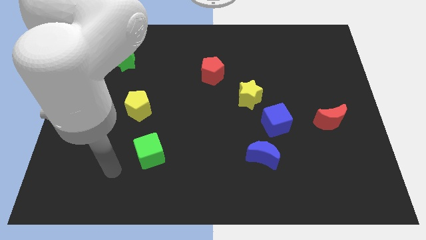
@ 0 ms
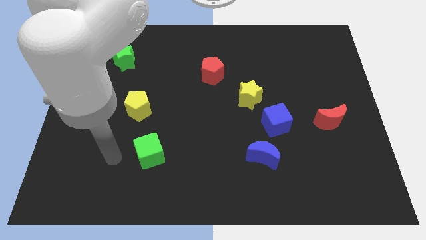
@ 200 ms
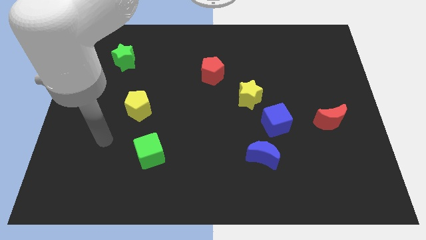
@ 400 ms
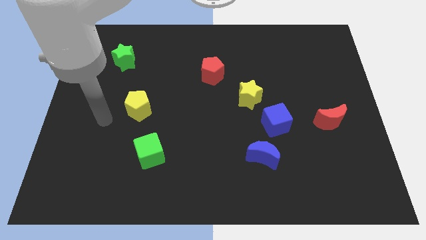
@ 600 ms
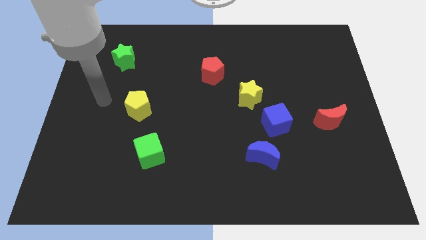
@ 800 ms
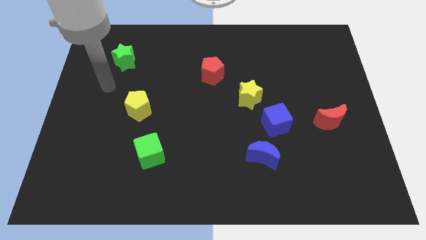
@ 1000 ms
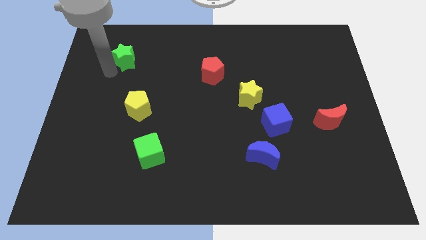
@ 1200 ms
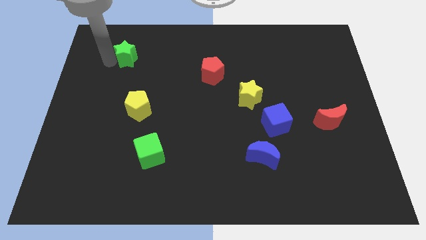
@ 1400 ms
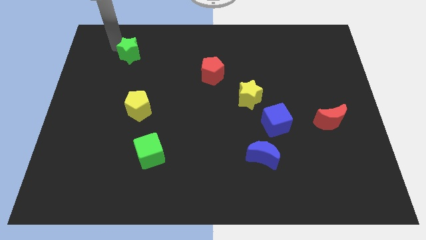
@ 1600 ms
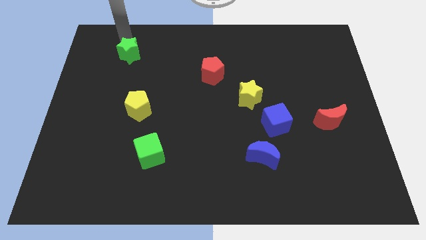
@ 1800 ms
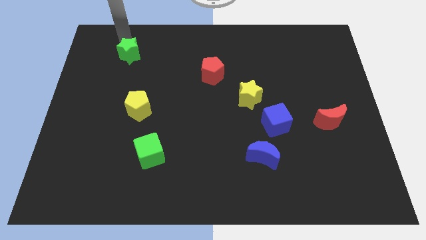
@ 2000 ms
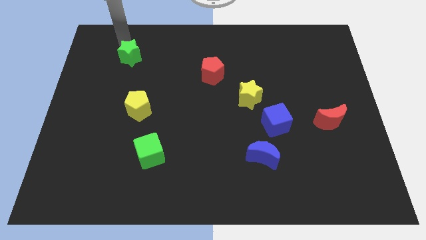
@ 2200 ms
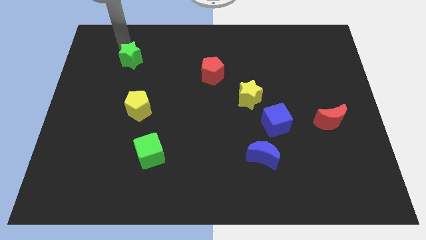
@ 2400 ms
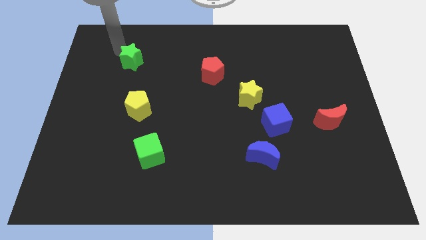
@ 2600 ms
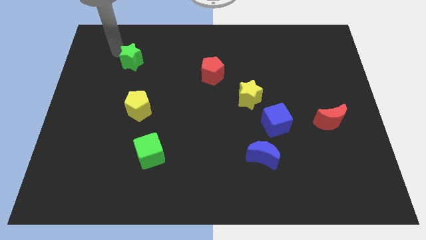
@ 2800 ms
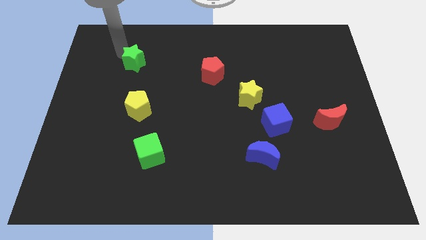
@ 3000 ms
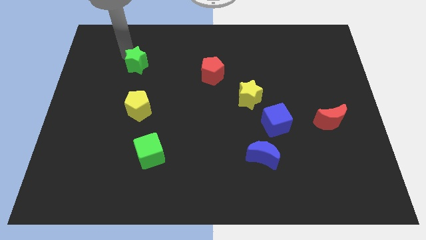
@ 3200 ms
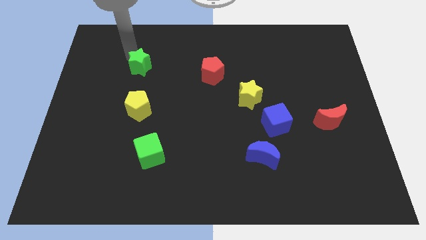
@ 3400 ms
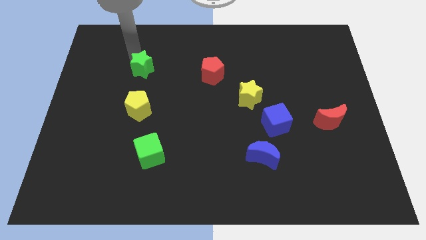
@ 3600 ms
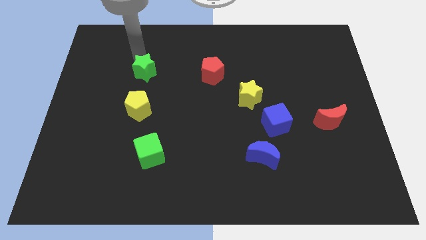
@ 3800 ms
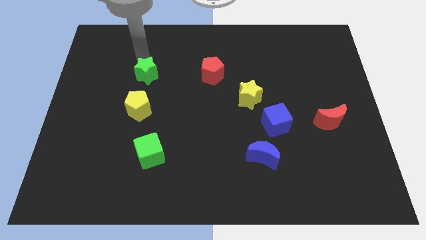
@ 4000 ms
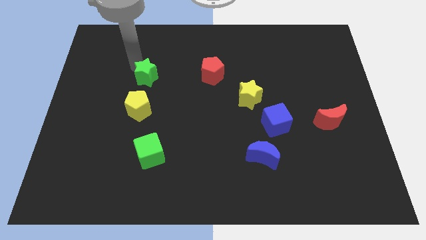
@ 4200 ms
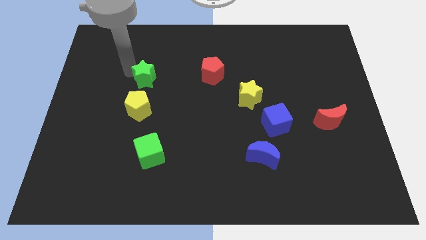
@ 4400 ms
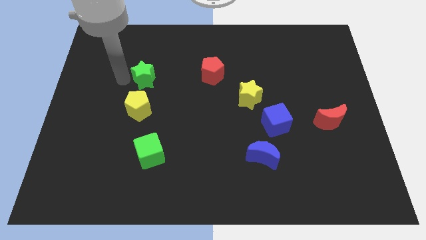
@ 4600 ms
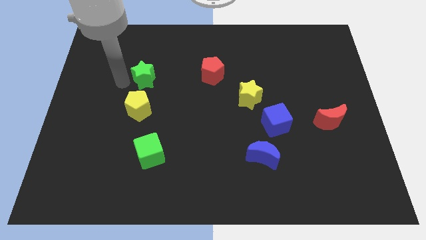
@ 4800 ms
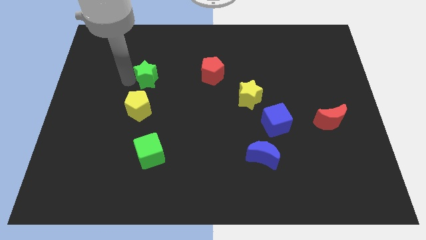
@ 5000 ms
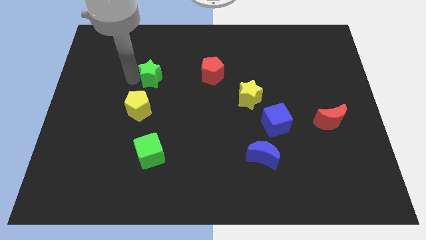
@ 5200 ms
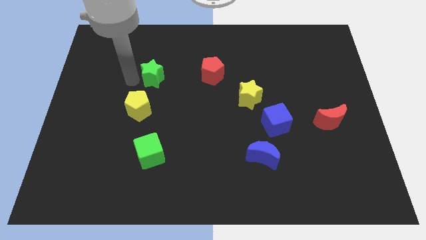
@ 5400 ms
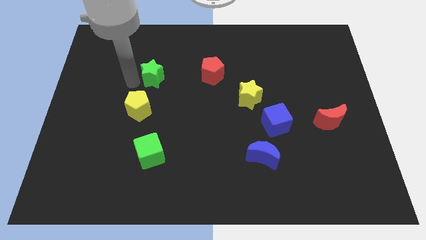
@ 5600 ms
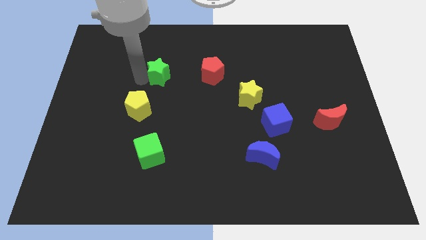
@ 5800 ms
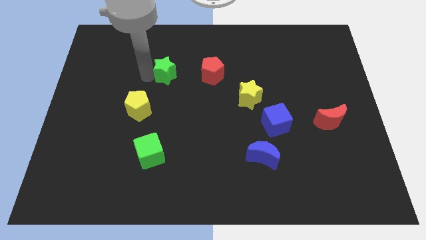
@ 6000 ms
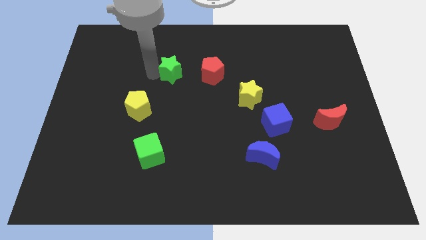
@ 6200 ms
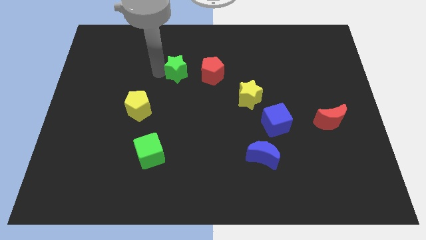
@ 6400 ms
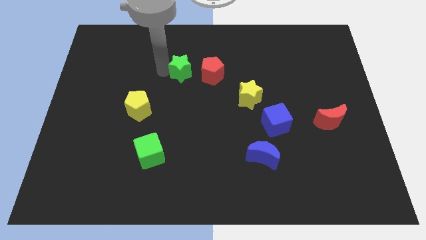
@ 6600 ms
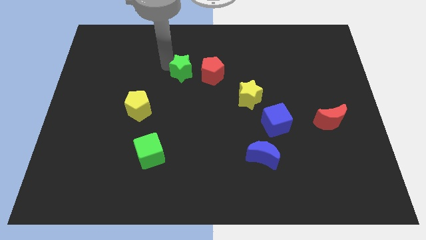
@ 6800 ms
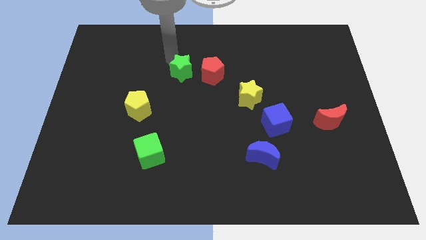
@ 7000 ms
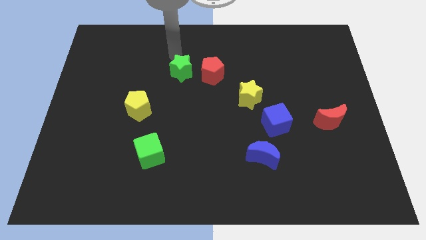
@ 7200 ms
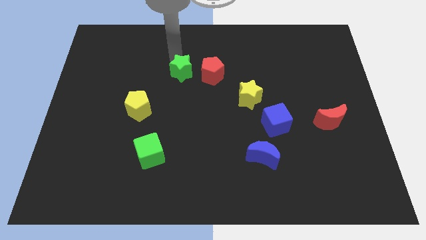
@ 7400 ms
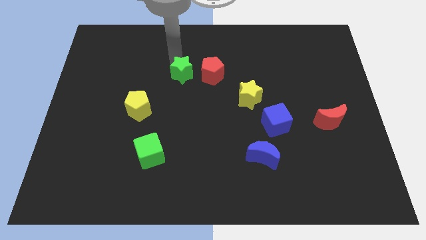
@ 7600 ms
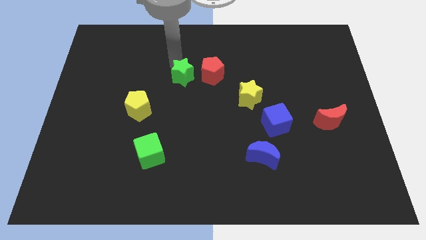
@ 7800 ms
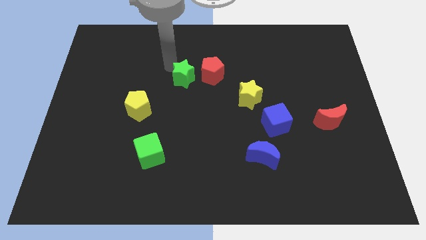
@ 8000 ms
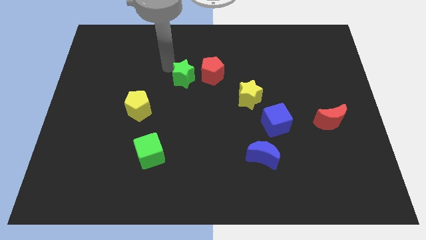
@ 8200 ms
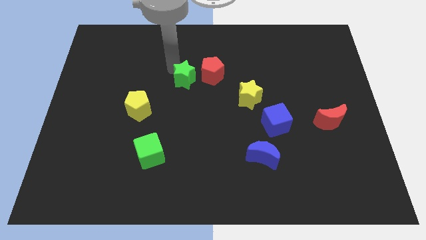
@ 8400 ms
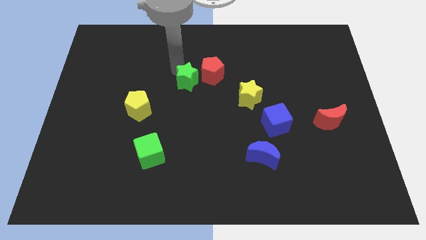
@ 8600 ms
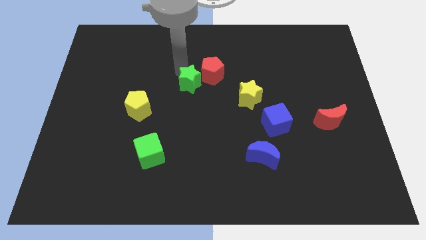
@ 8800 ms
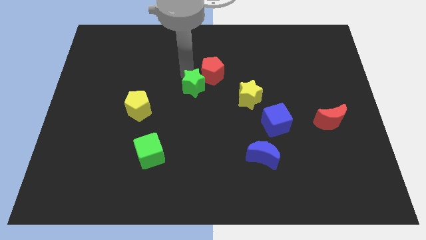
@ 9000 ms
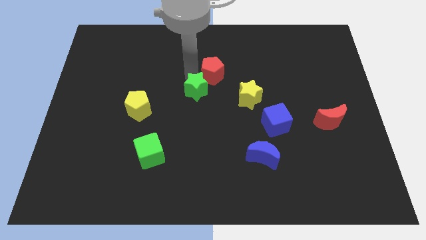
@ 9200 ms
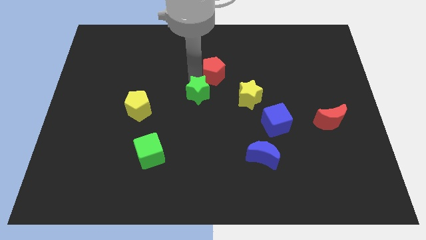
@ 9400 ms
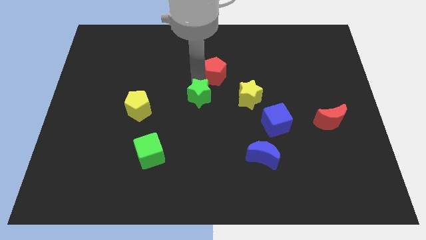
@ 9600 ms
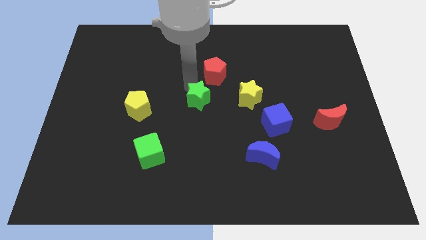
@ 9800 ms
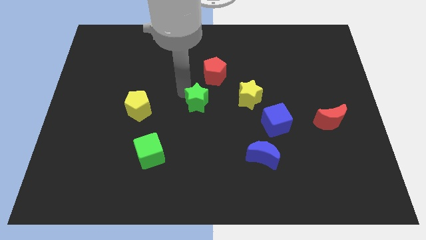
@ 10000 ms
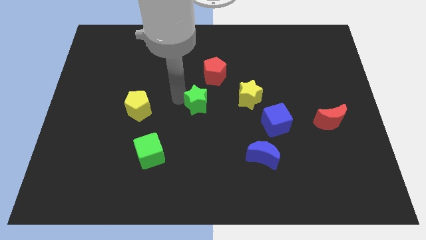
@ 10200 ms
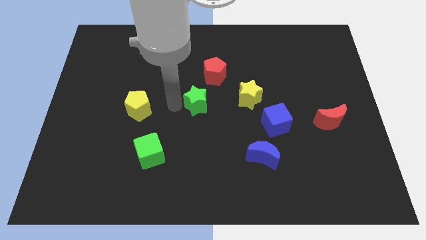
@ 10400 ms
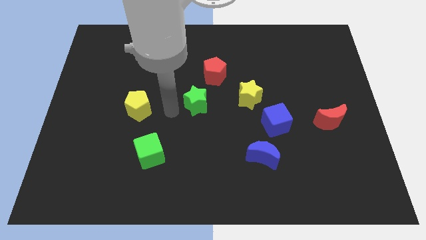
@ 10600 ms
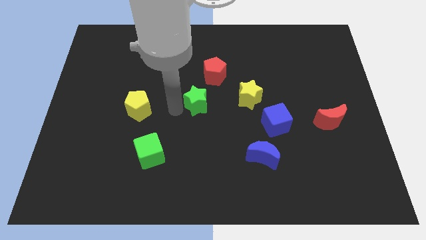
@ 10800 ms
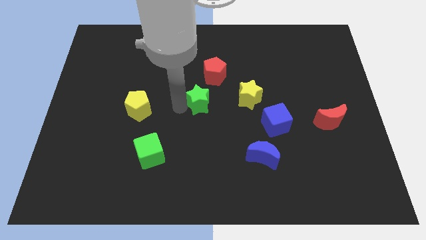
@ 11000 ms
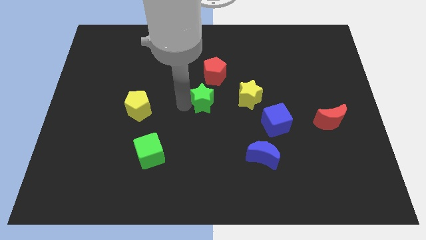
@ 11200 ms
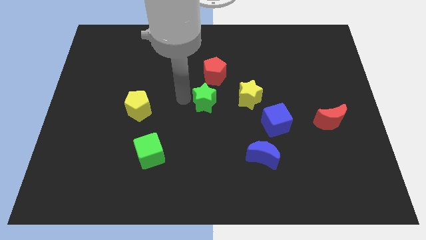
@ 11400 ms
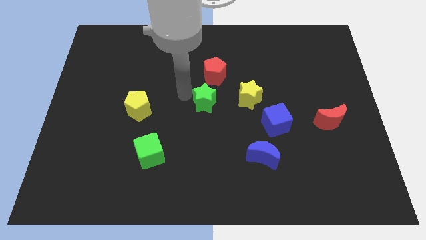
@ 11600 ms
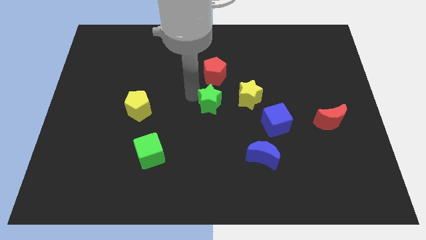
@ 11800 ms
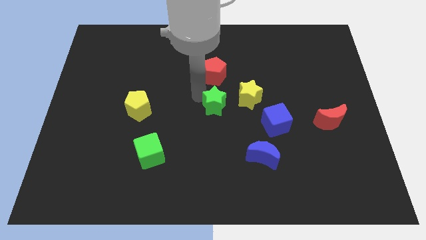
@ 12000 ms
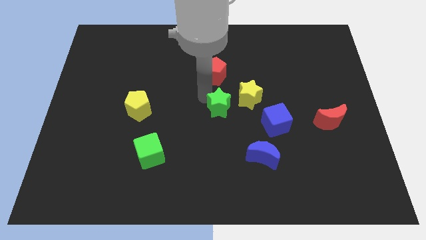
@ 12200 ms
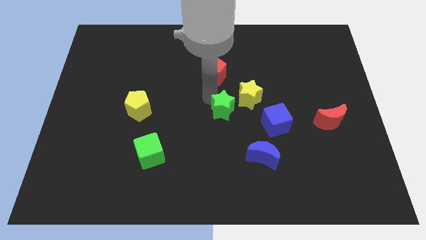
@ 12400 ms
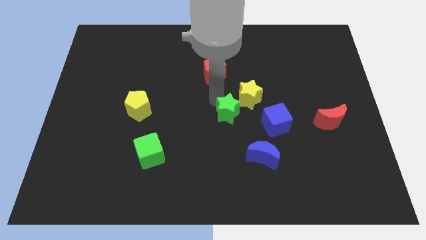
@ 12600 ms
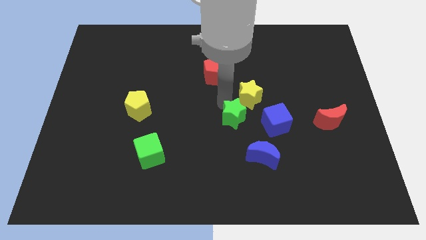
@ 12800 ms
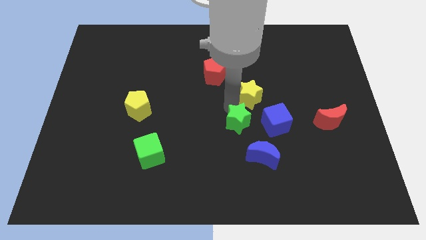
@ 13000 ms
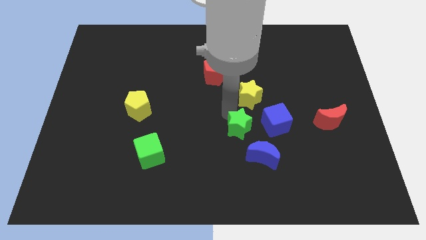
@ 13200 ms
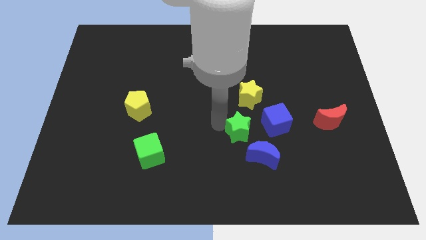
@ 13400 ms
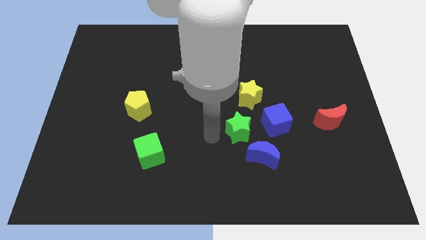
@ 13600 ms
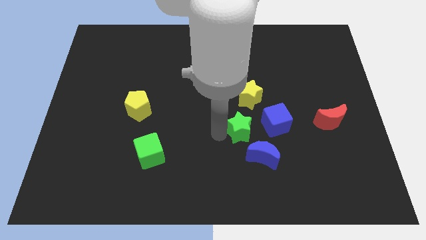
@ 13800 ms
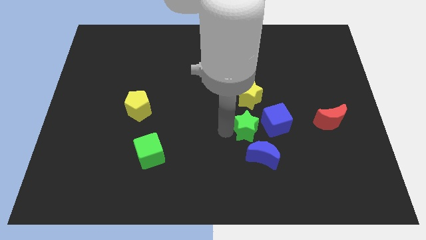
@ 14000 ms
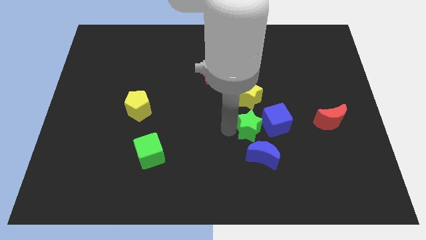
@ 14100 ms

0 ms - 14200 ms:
push the green star to the blue cube

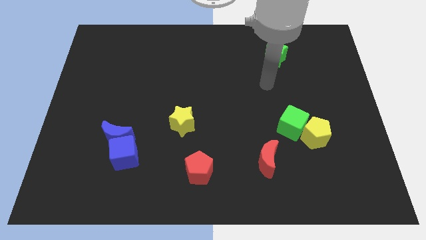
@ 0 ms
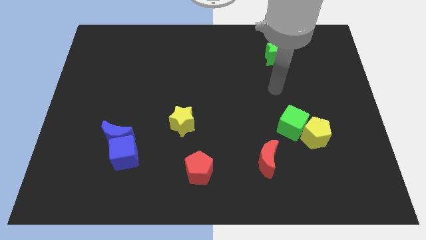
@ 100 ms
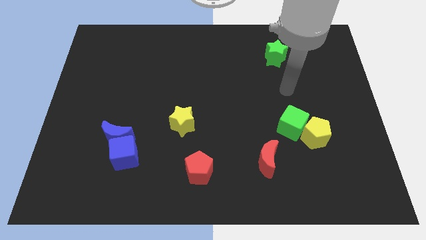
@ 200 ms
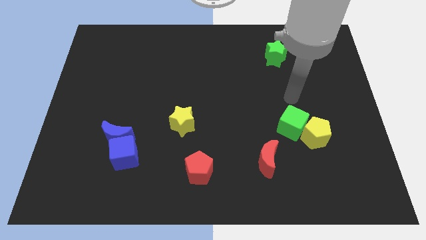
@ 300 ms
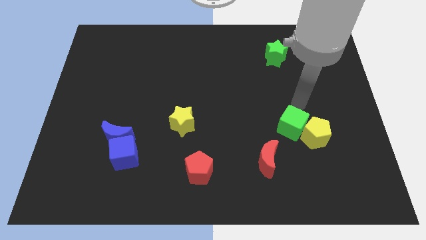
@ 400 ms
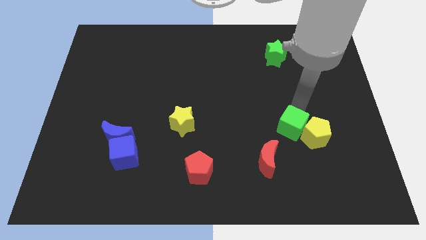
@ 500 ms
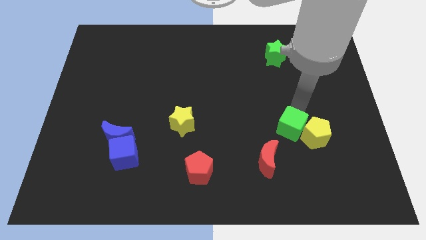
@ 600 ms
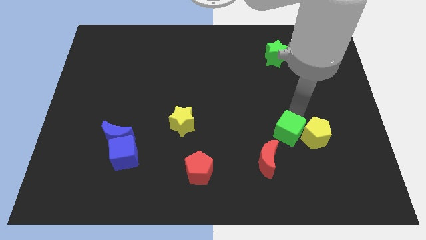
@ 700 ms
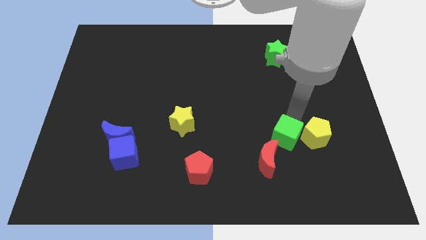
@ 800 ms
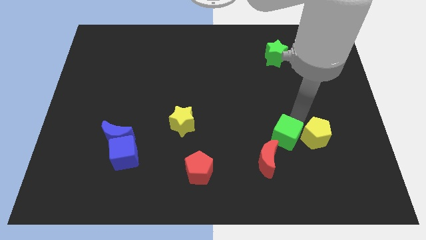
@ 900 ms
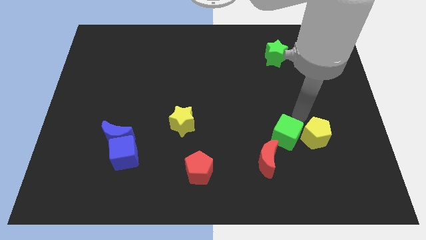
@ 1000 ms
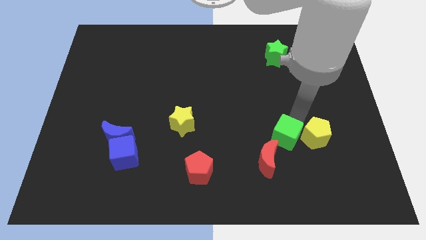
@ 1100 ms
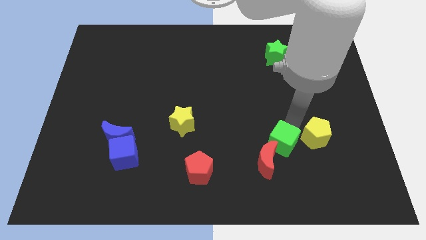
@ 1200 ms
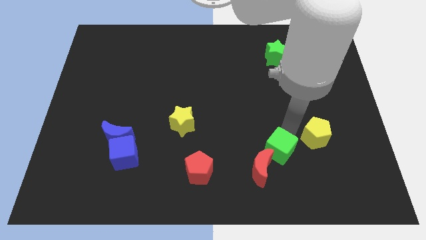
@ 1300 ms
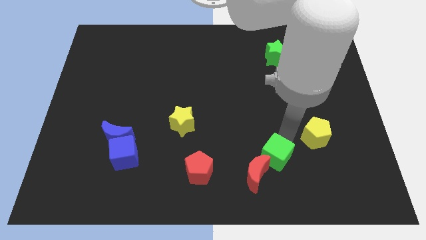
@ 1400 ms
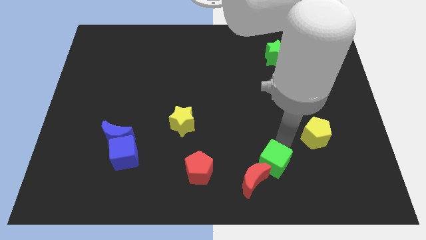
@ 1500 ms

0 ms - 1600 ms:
put the green cube next to the red moon
